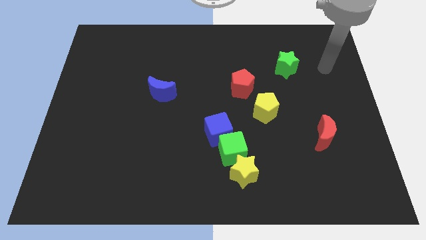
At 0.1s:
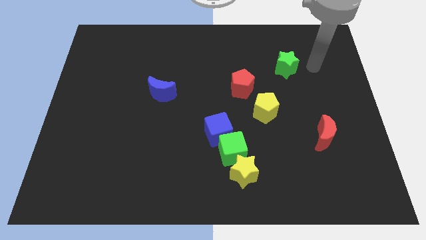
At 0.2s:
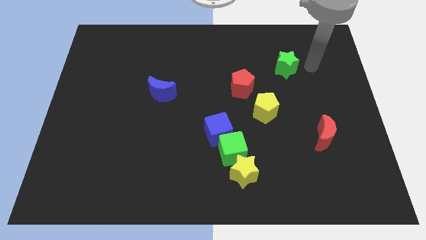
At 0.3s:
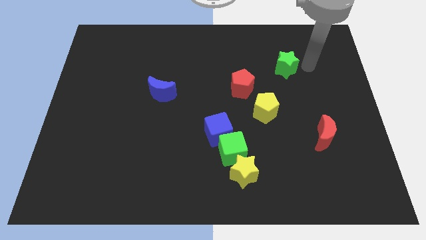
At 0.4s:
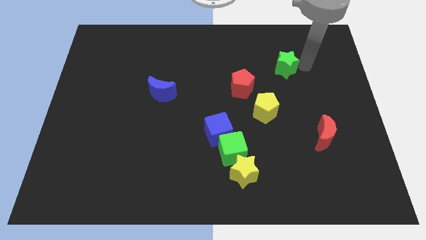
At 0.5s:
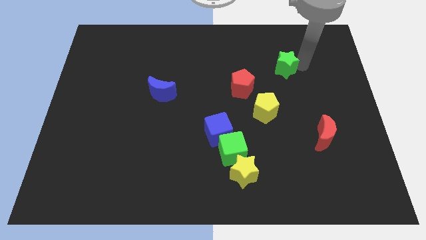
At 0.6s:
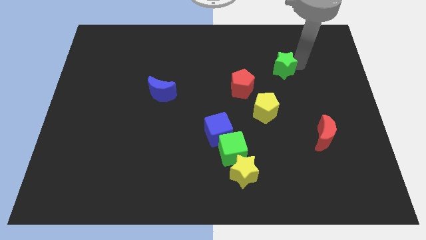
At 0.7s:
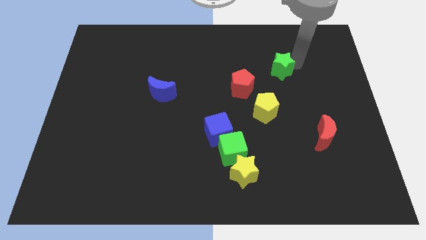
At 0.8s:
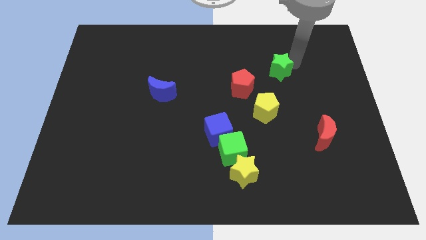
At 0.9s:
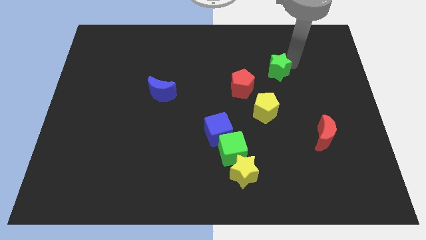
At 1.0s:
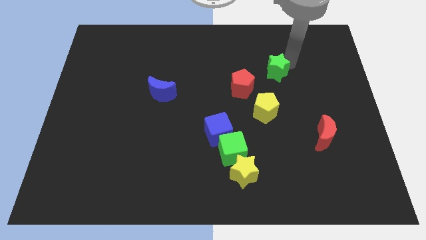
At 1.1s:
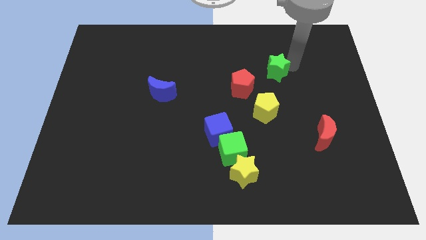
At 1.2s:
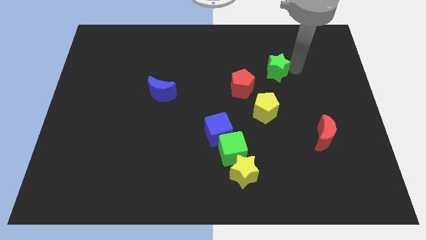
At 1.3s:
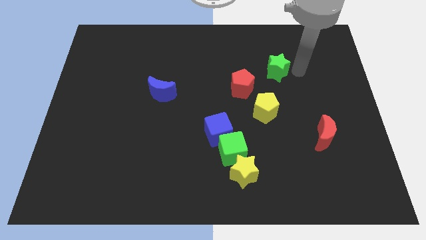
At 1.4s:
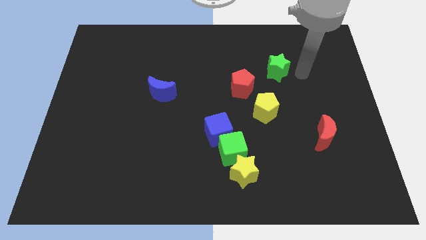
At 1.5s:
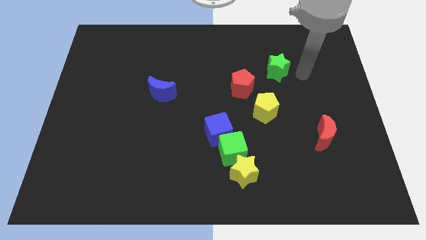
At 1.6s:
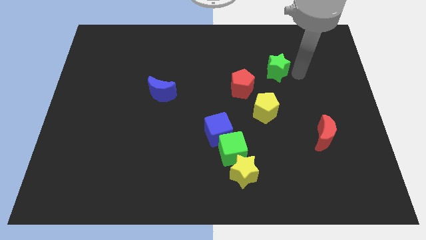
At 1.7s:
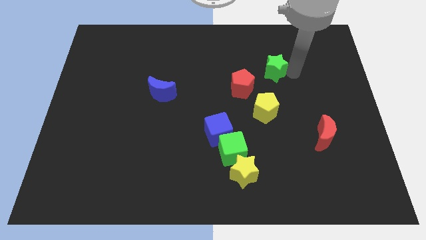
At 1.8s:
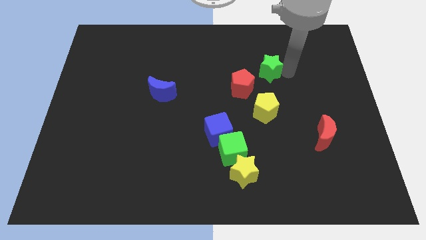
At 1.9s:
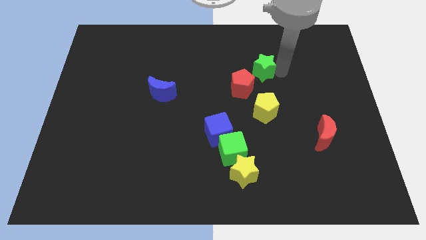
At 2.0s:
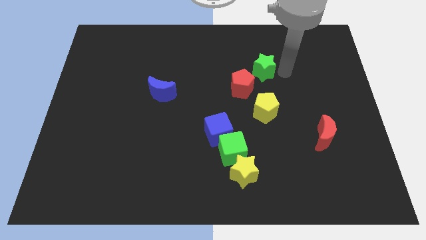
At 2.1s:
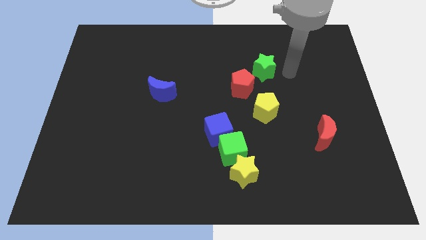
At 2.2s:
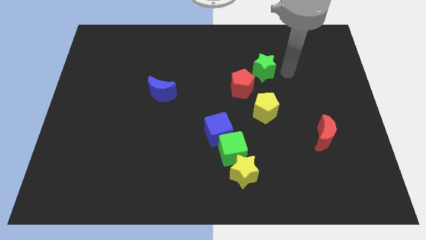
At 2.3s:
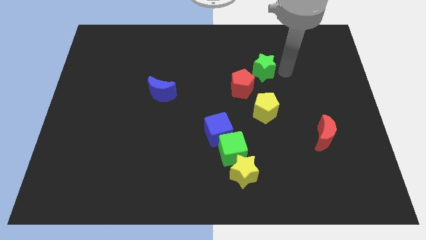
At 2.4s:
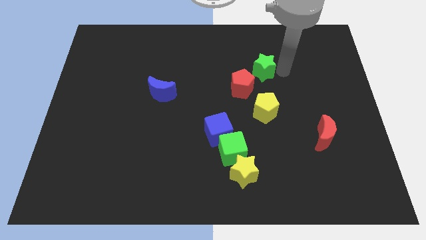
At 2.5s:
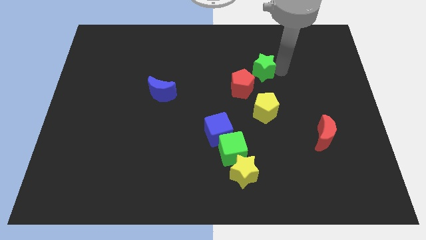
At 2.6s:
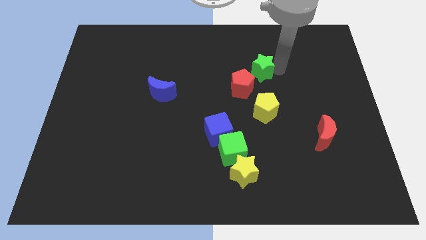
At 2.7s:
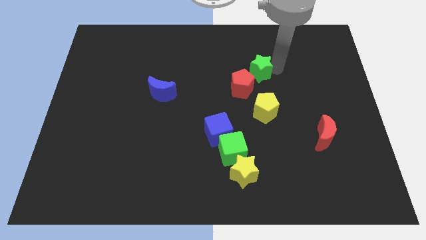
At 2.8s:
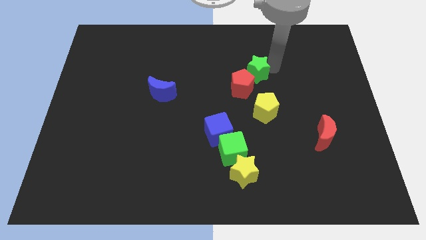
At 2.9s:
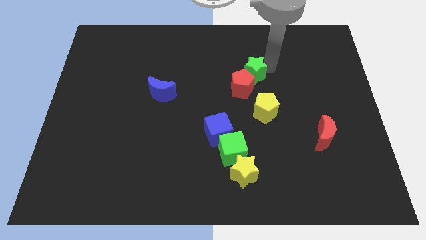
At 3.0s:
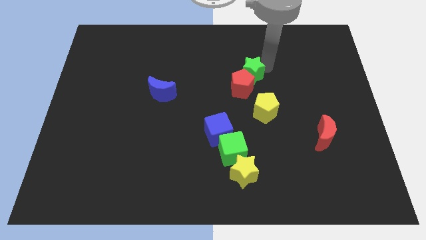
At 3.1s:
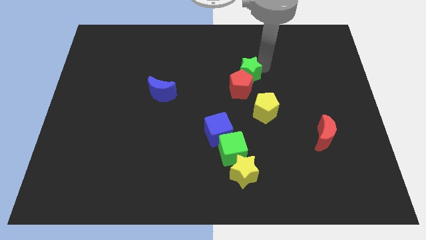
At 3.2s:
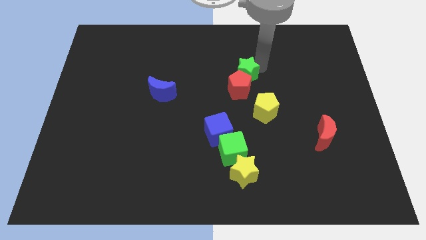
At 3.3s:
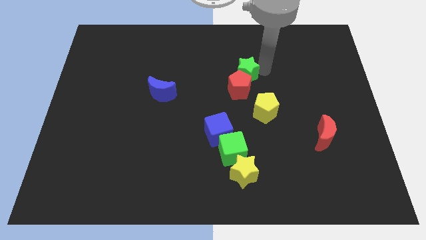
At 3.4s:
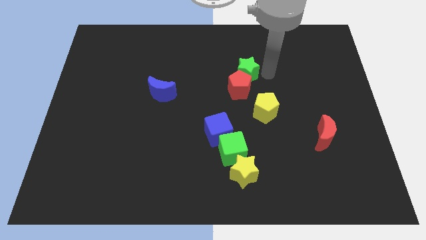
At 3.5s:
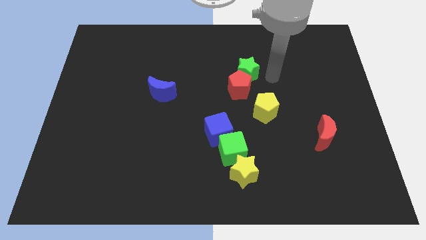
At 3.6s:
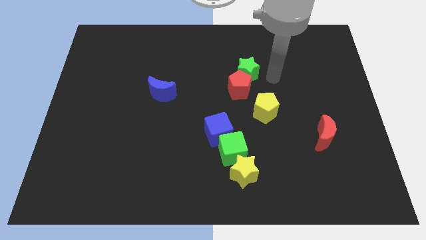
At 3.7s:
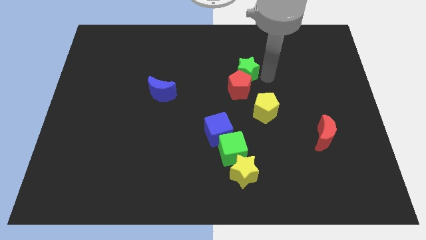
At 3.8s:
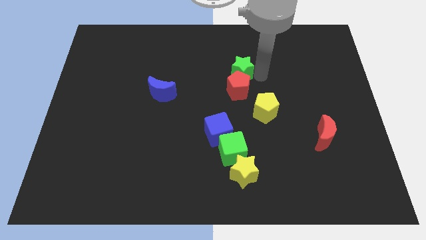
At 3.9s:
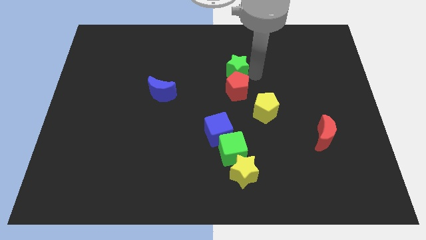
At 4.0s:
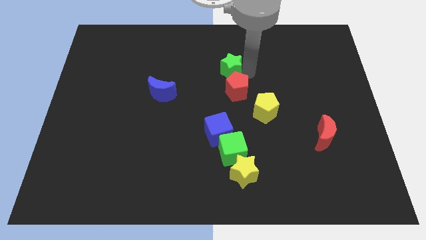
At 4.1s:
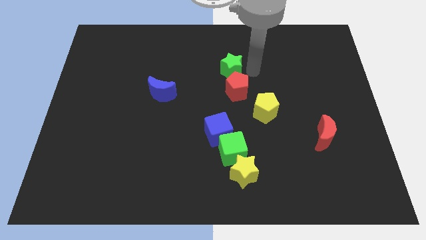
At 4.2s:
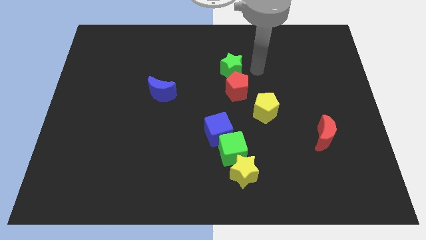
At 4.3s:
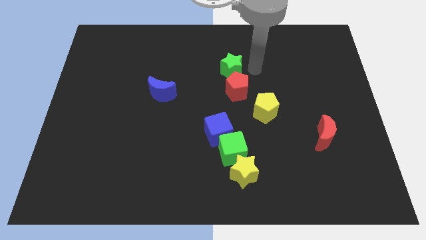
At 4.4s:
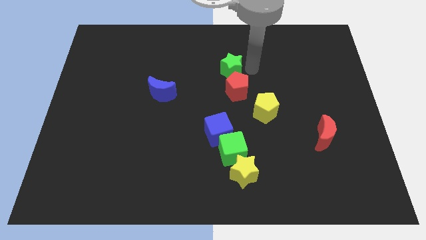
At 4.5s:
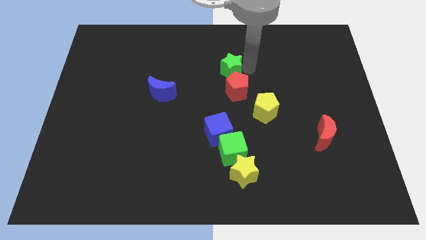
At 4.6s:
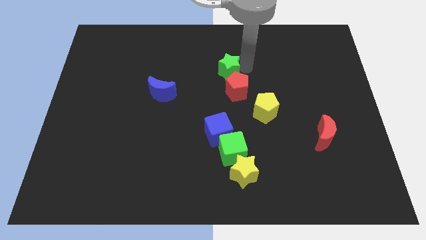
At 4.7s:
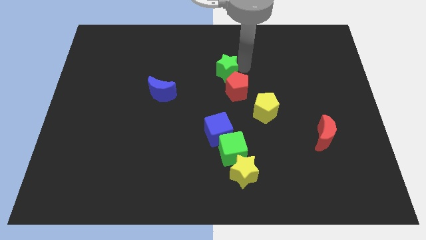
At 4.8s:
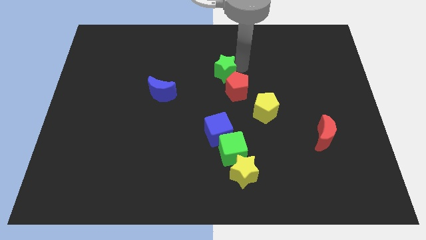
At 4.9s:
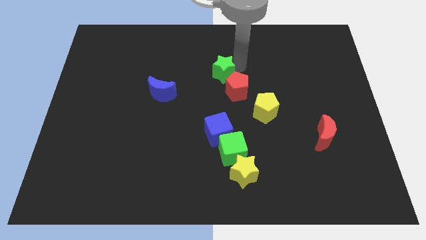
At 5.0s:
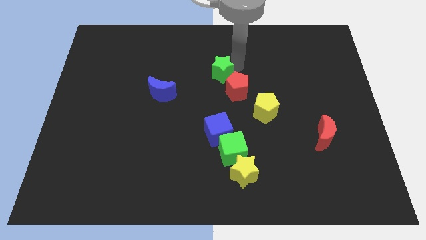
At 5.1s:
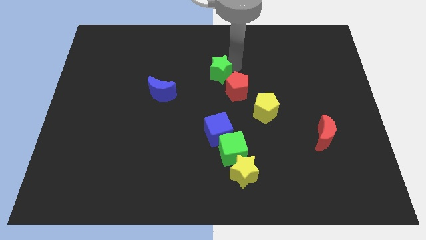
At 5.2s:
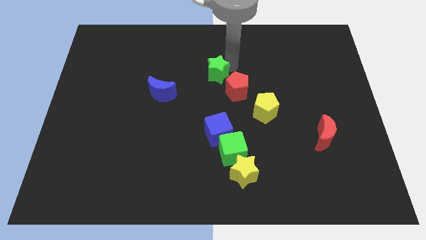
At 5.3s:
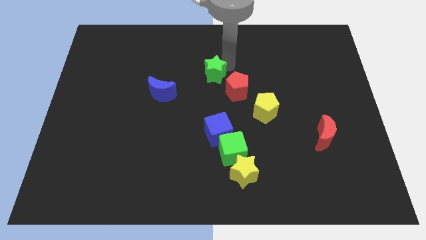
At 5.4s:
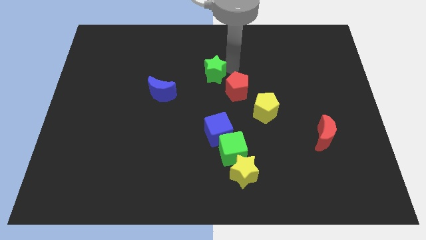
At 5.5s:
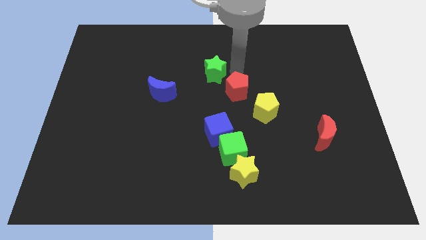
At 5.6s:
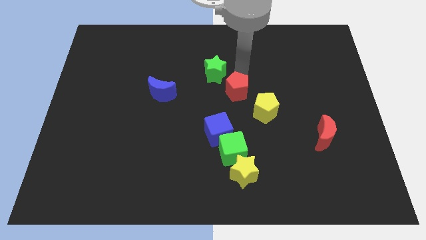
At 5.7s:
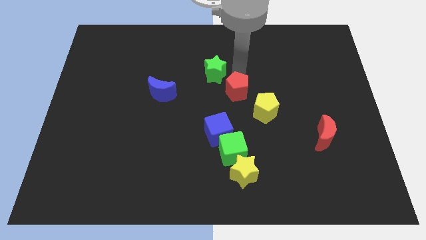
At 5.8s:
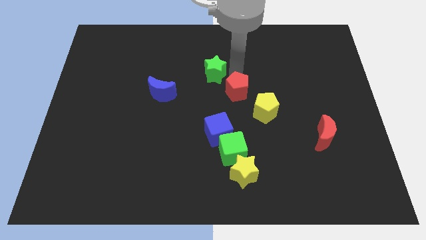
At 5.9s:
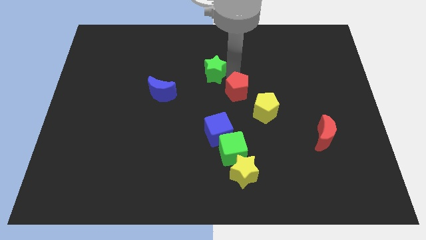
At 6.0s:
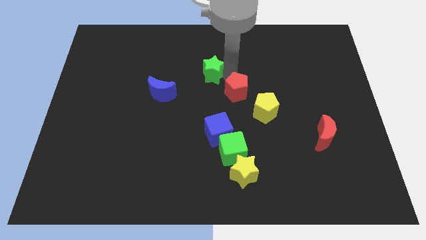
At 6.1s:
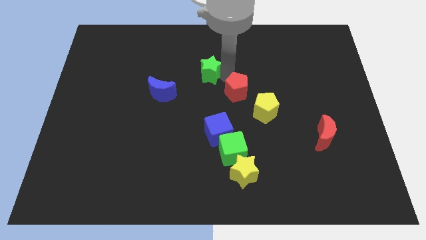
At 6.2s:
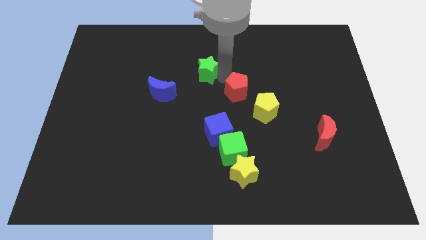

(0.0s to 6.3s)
slide the green star left

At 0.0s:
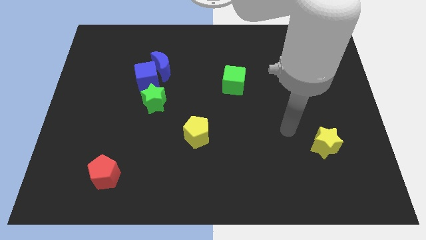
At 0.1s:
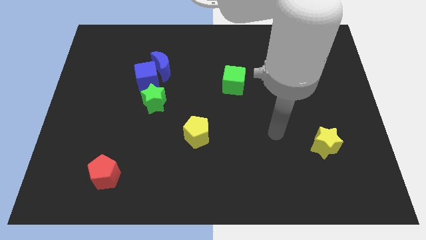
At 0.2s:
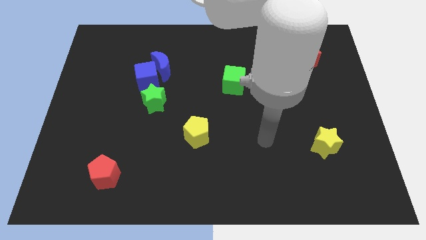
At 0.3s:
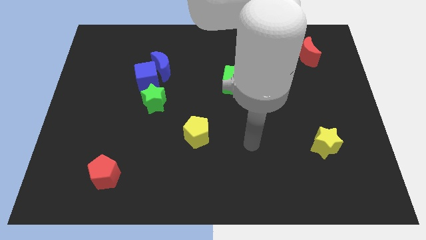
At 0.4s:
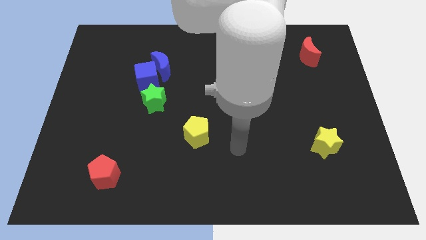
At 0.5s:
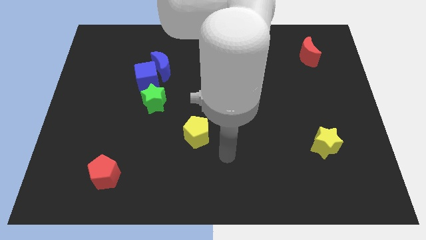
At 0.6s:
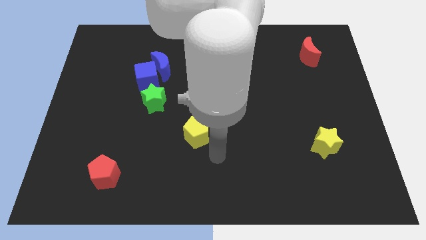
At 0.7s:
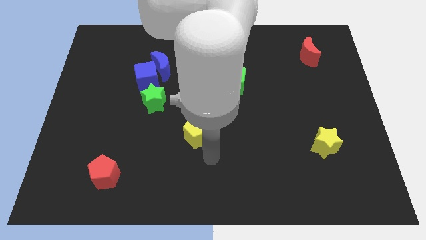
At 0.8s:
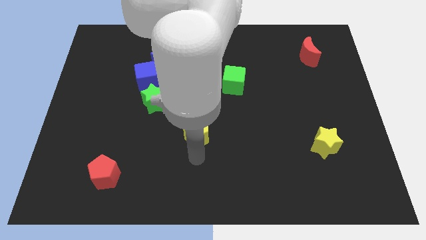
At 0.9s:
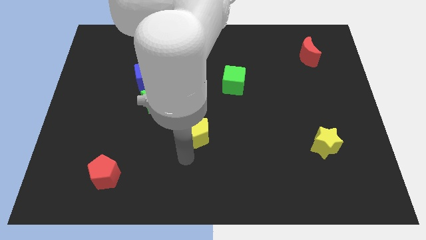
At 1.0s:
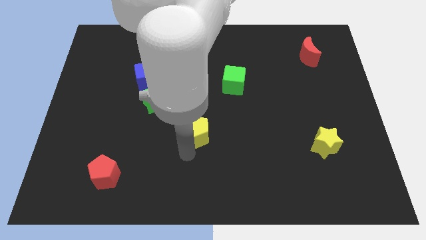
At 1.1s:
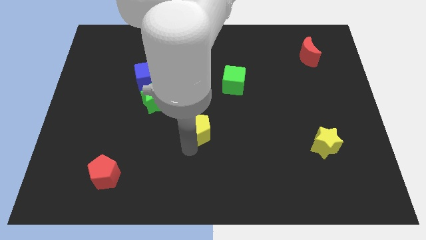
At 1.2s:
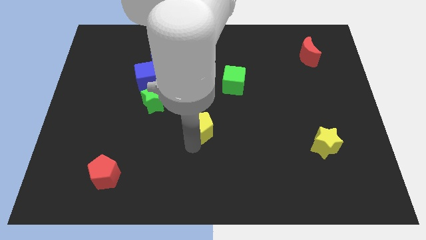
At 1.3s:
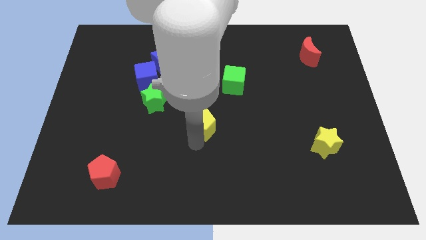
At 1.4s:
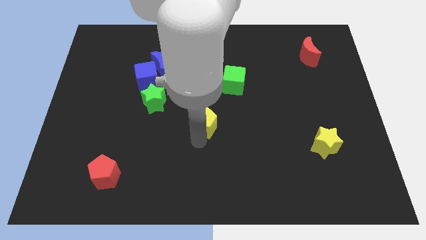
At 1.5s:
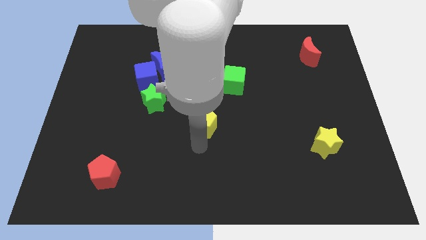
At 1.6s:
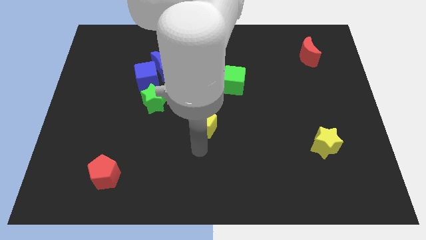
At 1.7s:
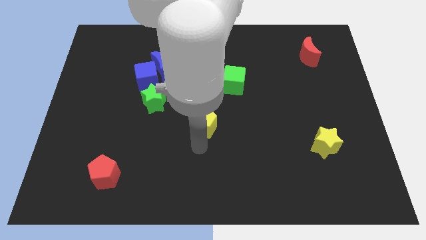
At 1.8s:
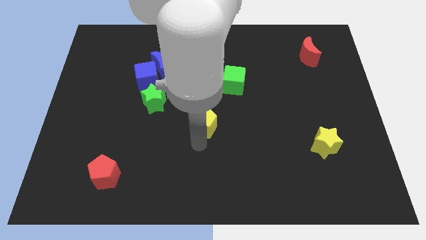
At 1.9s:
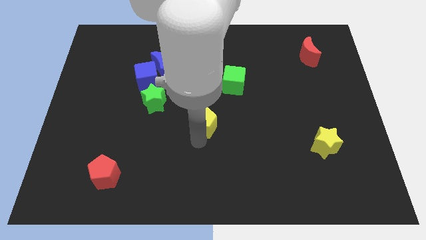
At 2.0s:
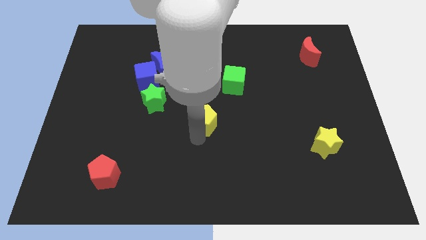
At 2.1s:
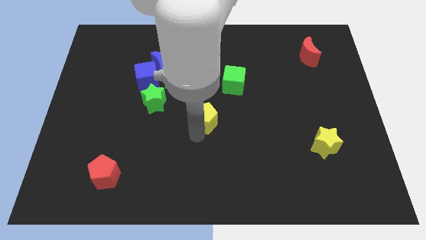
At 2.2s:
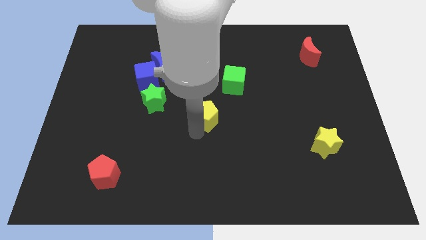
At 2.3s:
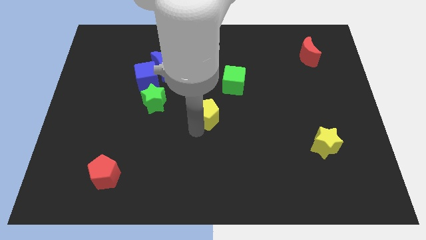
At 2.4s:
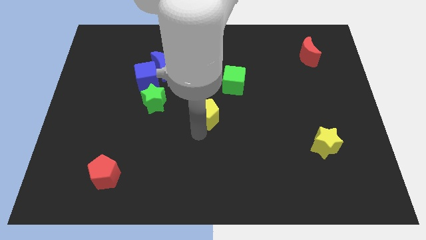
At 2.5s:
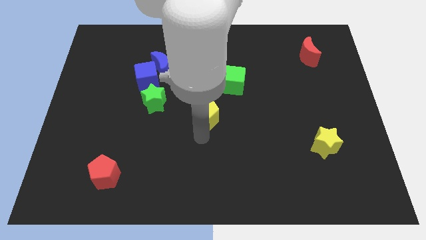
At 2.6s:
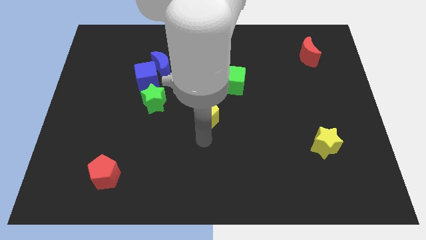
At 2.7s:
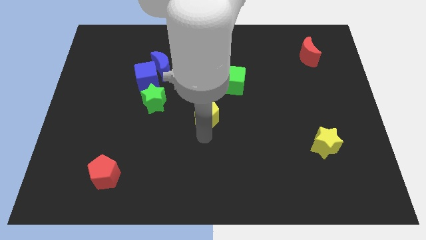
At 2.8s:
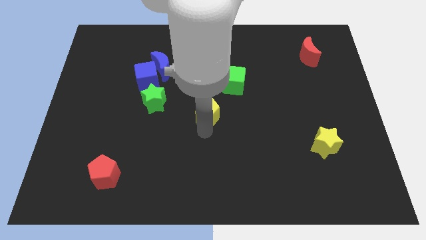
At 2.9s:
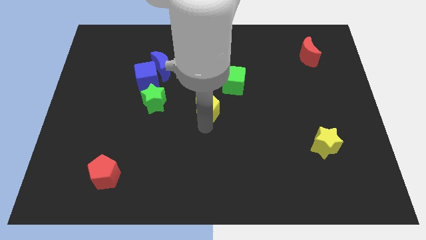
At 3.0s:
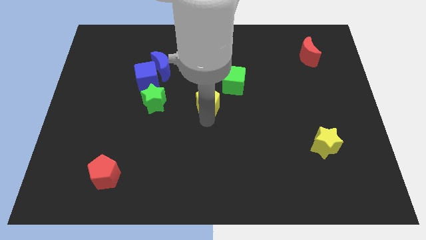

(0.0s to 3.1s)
slightly slide the yellow pentagon upwards
